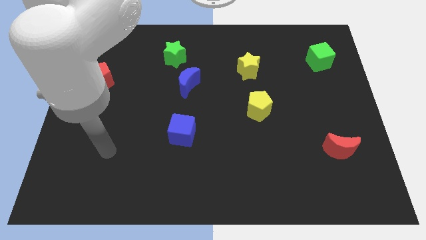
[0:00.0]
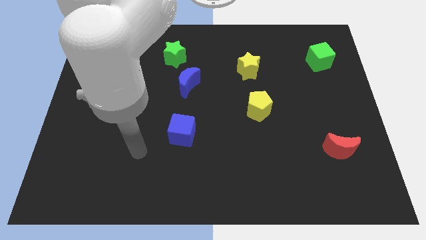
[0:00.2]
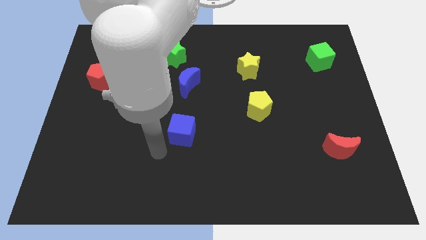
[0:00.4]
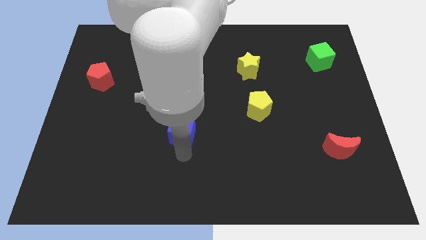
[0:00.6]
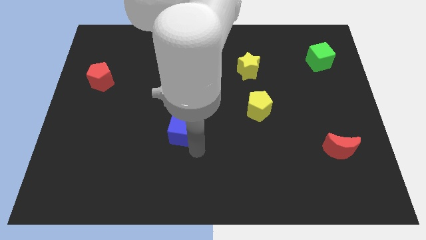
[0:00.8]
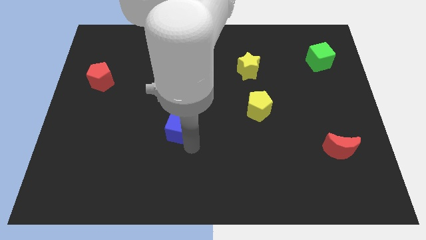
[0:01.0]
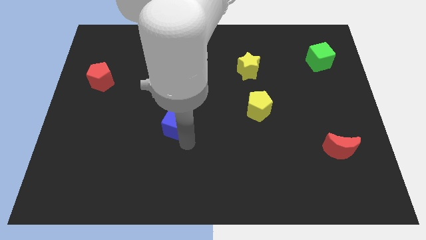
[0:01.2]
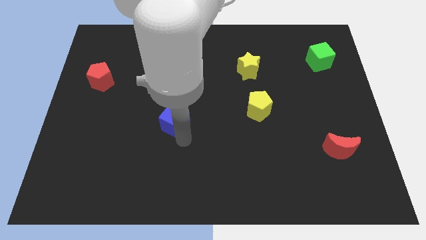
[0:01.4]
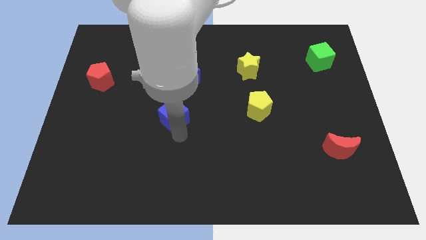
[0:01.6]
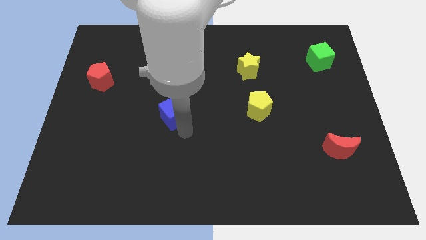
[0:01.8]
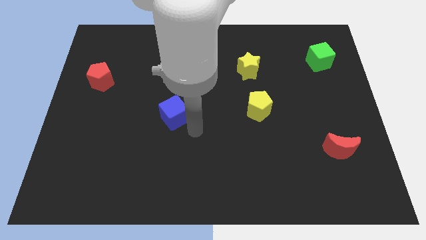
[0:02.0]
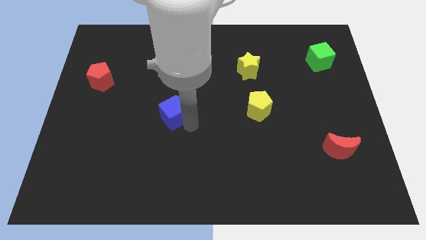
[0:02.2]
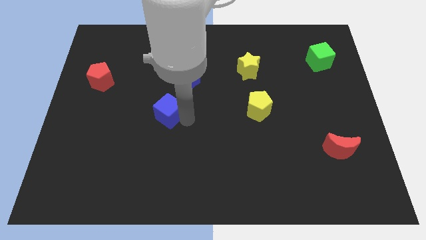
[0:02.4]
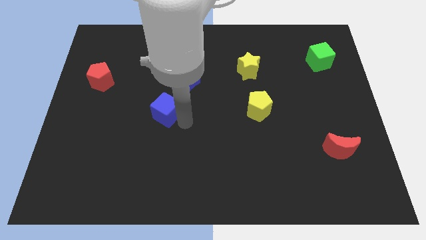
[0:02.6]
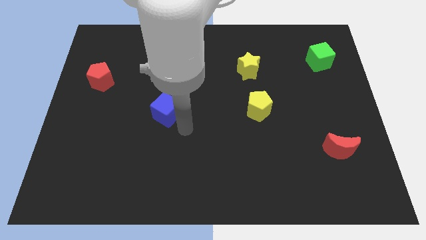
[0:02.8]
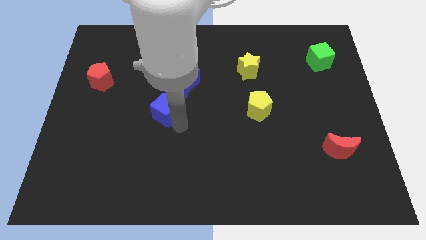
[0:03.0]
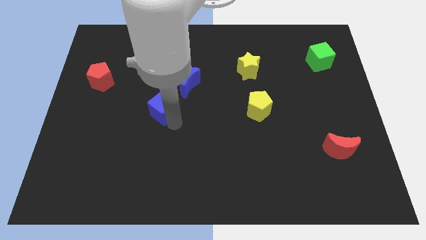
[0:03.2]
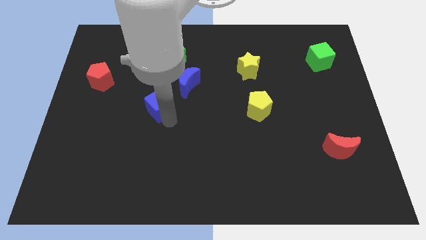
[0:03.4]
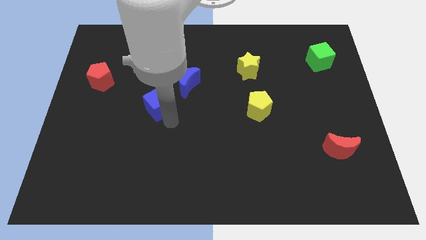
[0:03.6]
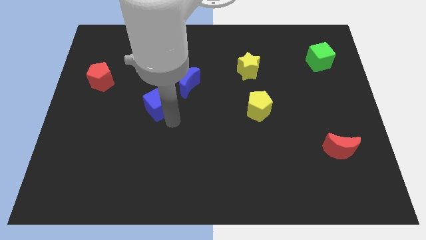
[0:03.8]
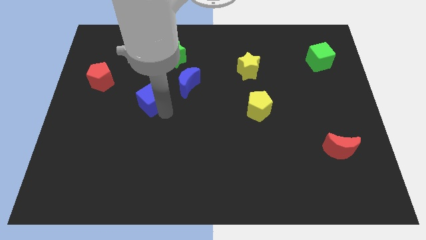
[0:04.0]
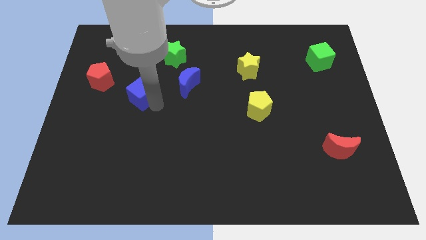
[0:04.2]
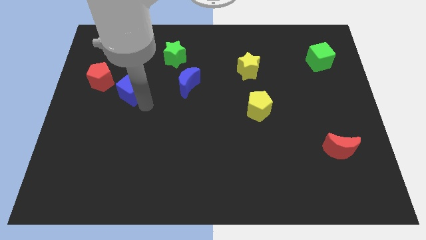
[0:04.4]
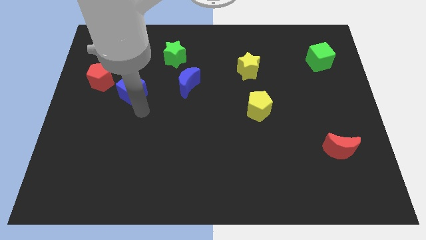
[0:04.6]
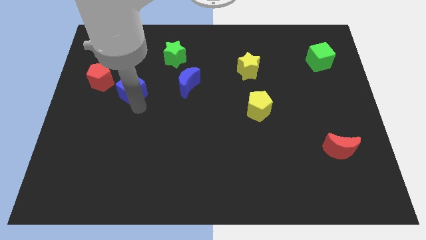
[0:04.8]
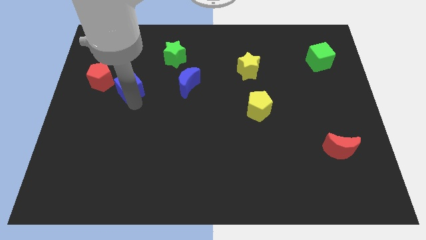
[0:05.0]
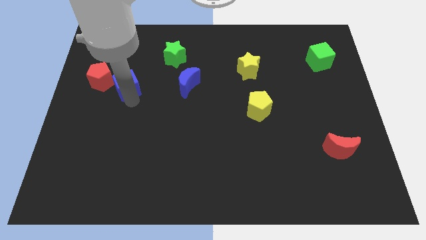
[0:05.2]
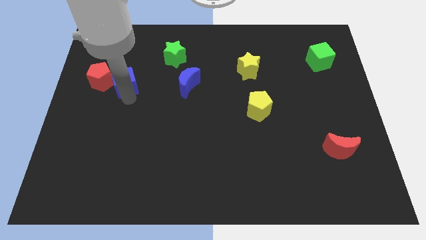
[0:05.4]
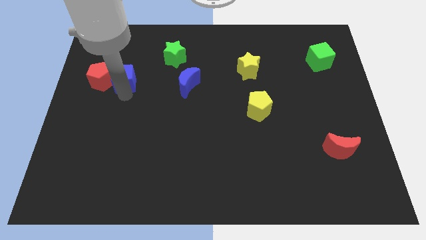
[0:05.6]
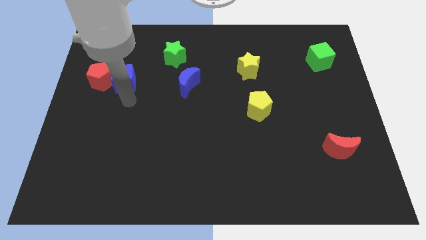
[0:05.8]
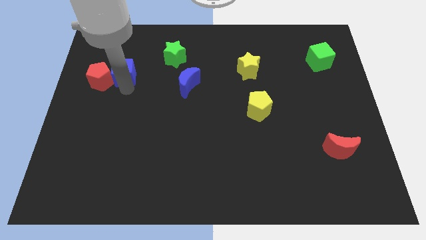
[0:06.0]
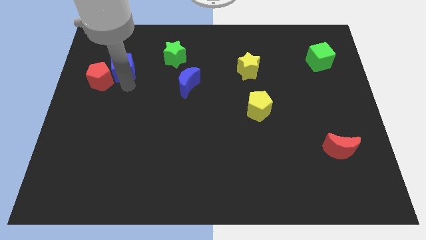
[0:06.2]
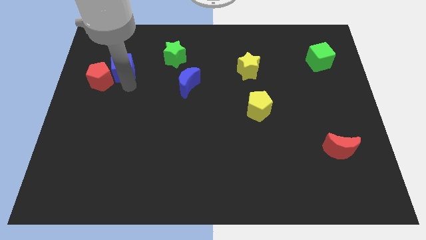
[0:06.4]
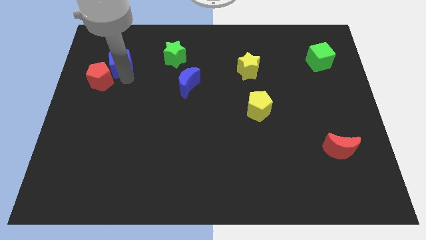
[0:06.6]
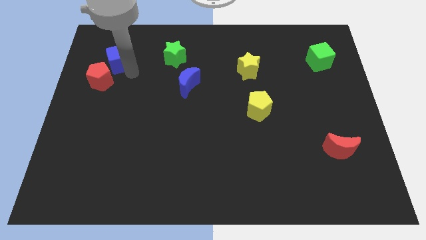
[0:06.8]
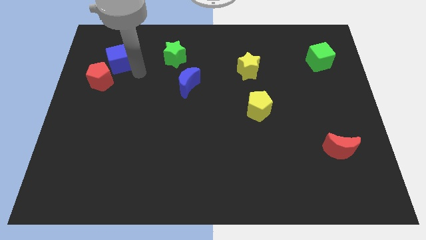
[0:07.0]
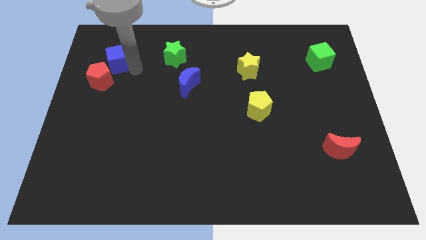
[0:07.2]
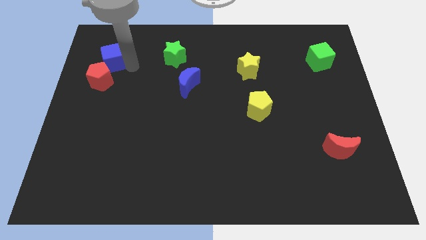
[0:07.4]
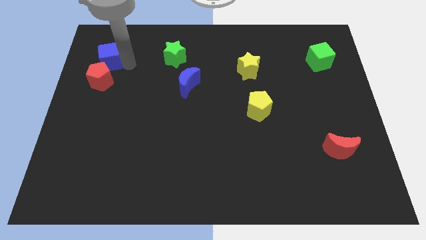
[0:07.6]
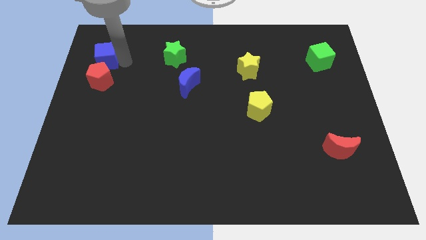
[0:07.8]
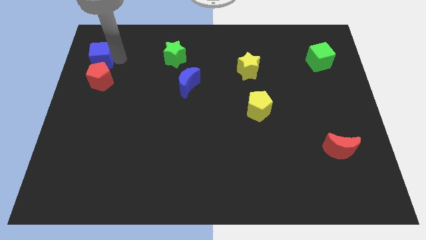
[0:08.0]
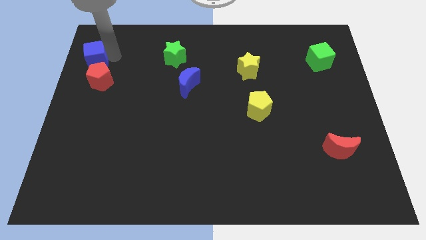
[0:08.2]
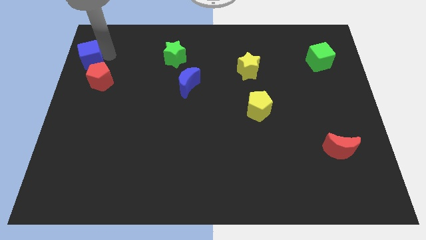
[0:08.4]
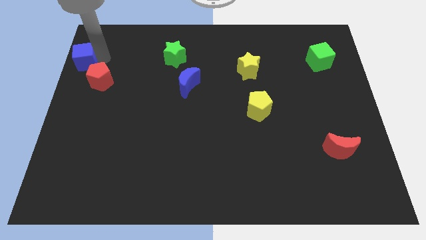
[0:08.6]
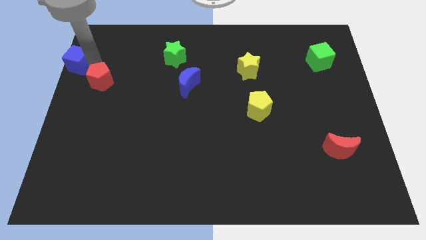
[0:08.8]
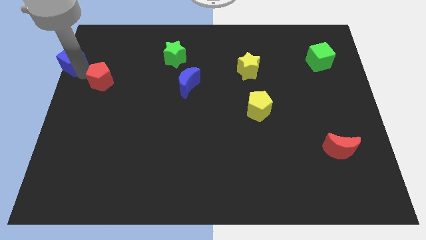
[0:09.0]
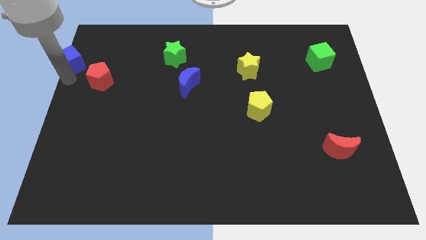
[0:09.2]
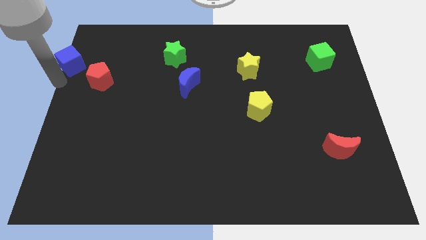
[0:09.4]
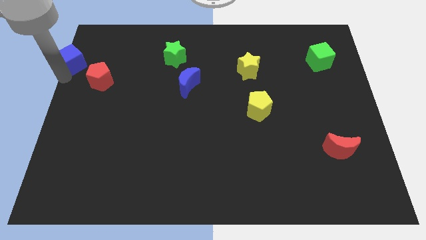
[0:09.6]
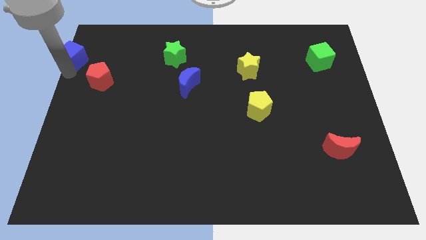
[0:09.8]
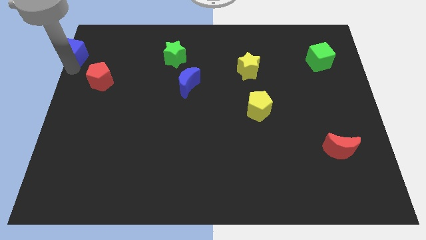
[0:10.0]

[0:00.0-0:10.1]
push the blue cube to the upper left corner

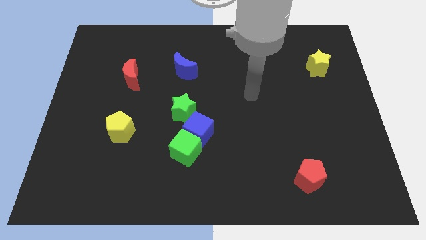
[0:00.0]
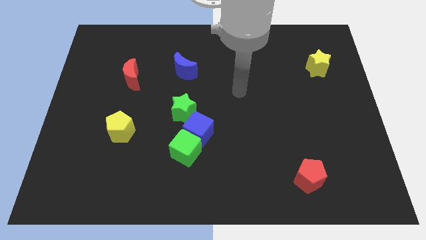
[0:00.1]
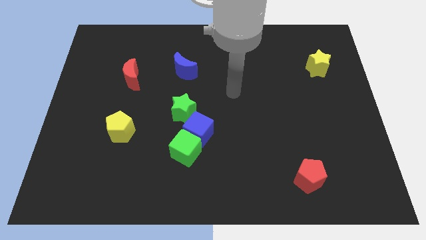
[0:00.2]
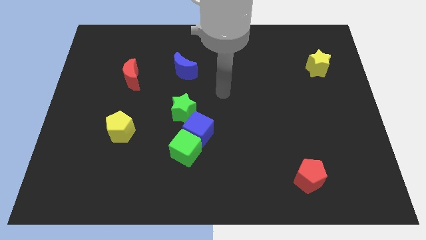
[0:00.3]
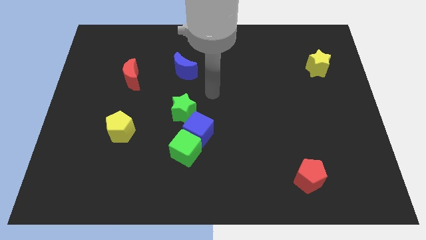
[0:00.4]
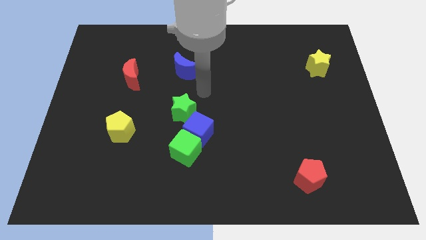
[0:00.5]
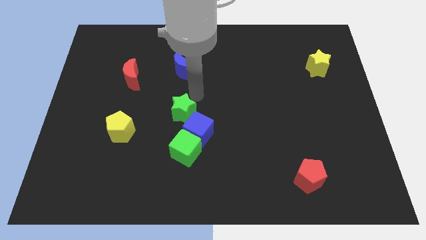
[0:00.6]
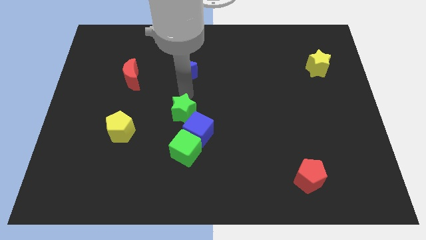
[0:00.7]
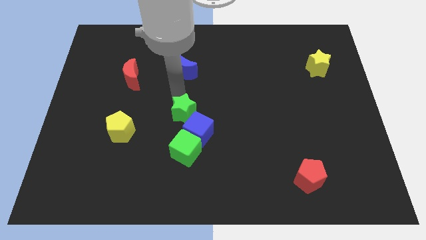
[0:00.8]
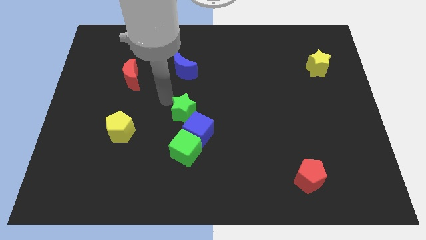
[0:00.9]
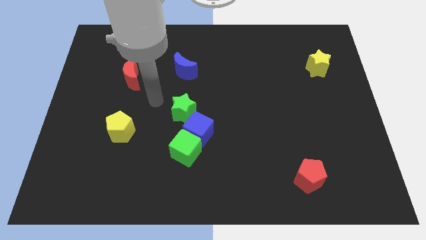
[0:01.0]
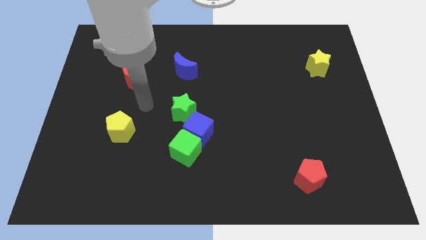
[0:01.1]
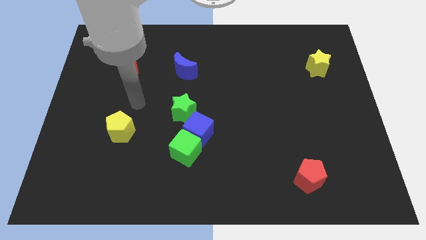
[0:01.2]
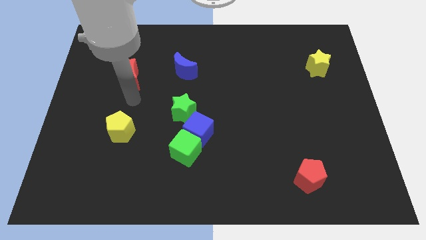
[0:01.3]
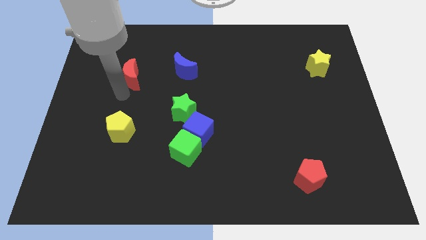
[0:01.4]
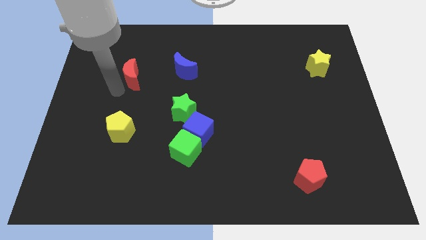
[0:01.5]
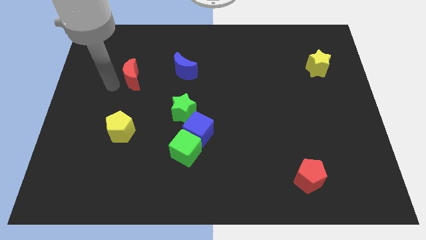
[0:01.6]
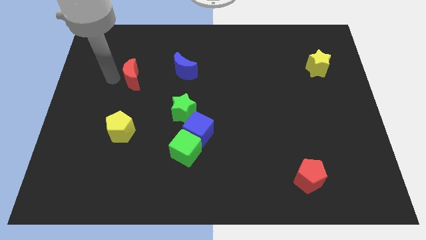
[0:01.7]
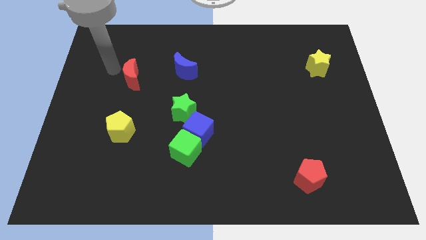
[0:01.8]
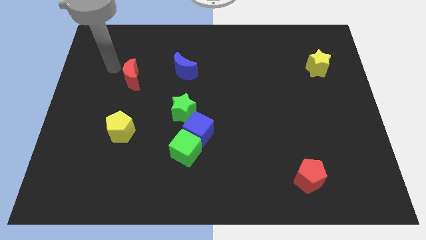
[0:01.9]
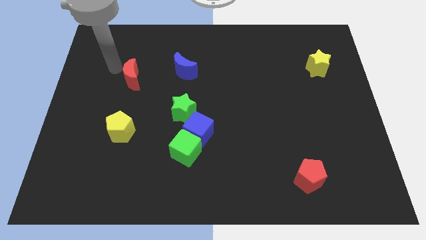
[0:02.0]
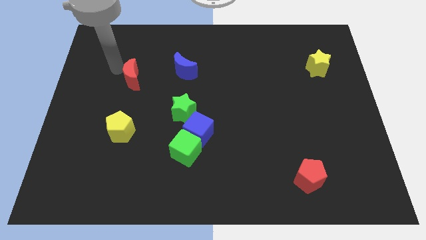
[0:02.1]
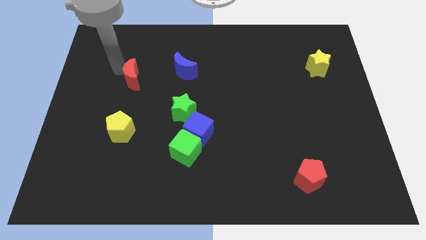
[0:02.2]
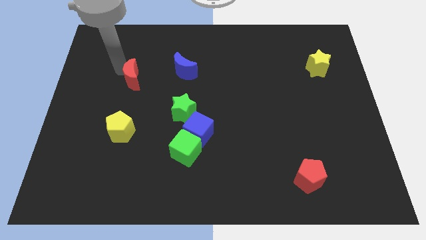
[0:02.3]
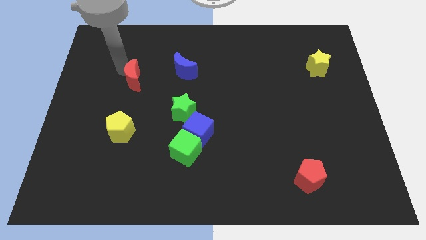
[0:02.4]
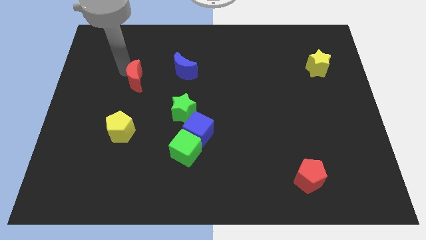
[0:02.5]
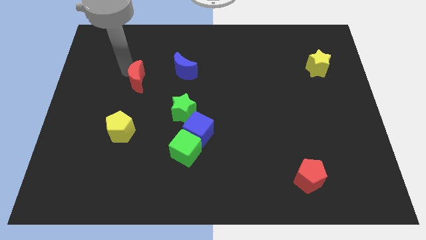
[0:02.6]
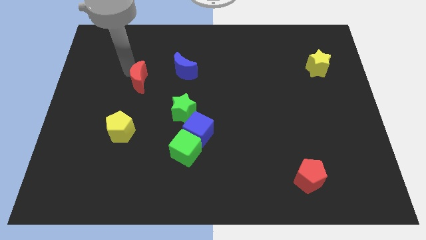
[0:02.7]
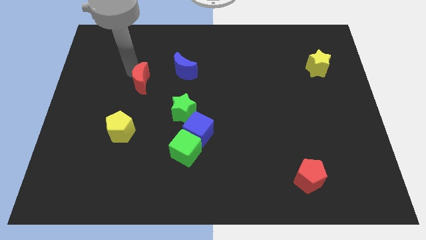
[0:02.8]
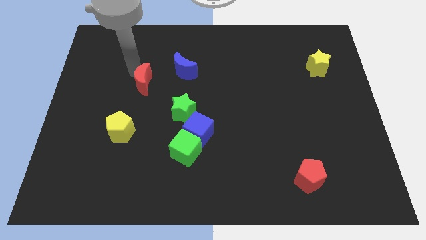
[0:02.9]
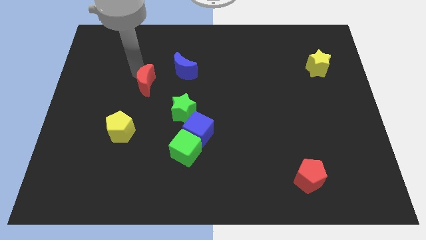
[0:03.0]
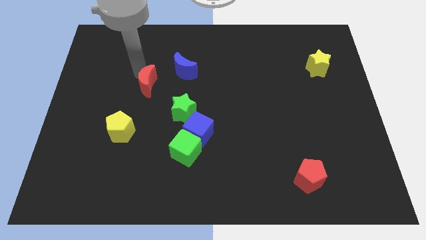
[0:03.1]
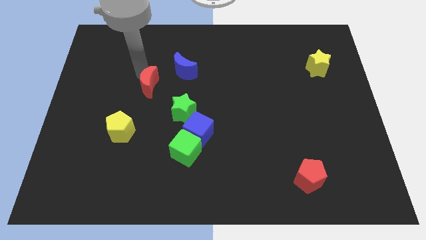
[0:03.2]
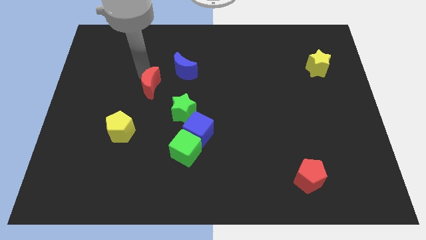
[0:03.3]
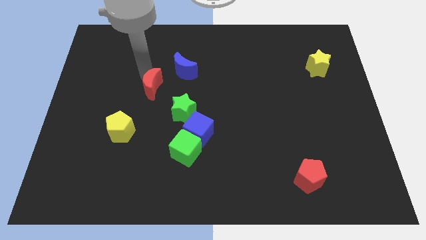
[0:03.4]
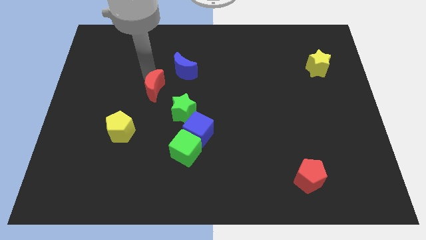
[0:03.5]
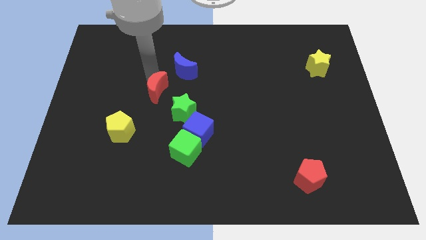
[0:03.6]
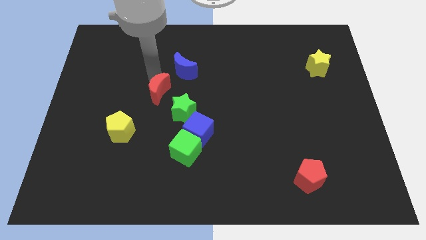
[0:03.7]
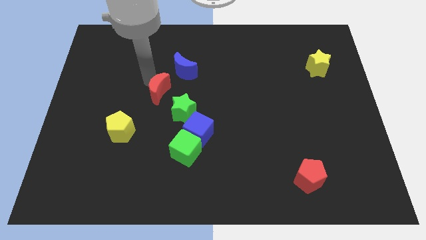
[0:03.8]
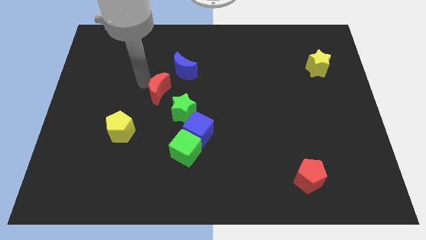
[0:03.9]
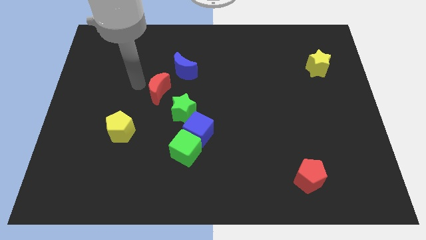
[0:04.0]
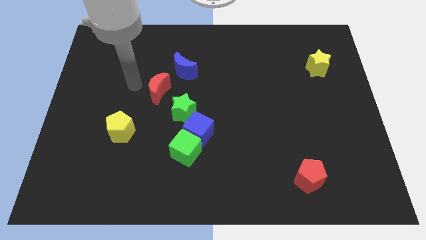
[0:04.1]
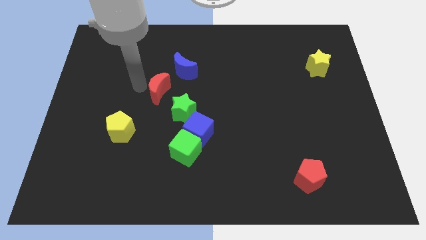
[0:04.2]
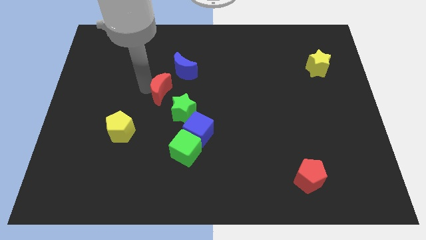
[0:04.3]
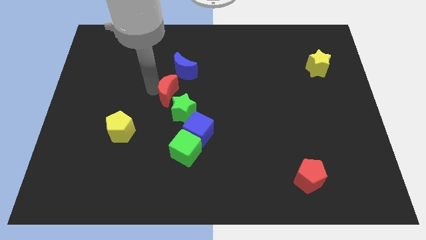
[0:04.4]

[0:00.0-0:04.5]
slide the red moon to the middle of the board
